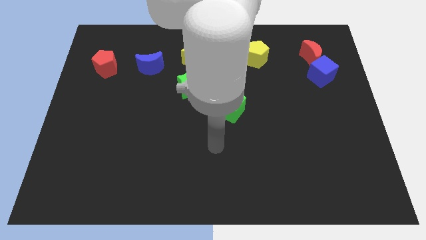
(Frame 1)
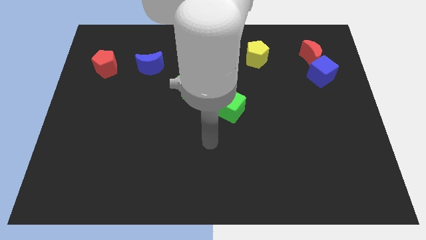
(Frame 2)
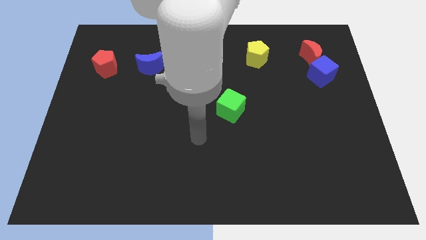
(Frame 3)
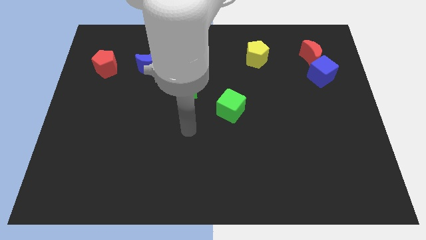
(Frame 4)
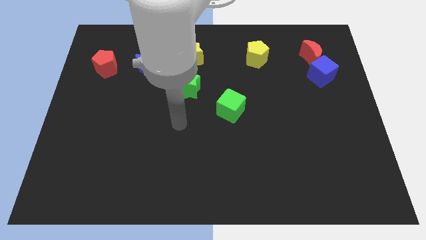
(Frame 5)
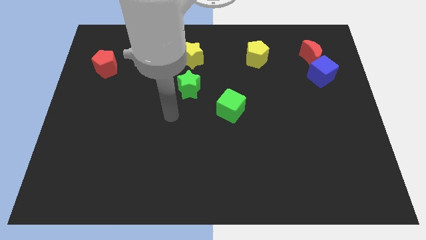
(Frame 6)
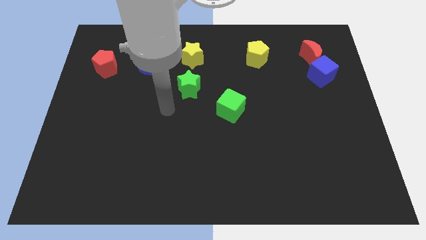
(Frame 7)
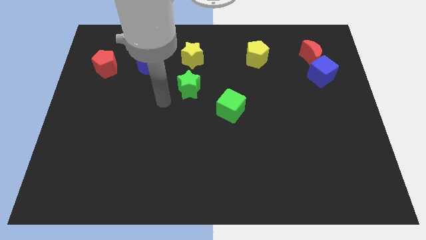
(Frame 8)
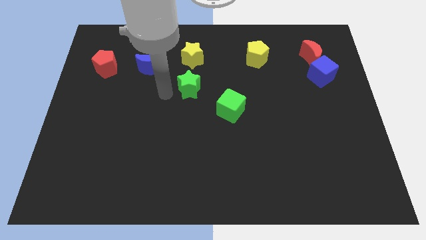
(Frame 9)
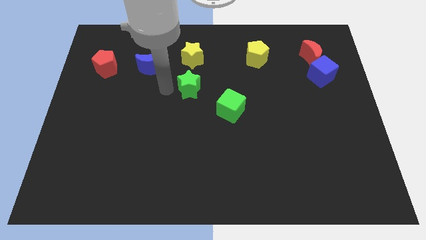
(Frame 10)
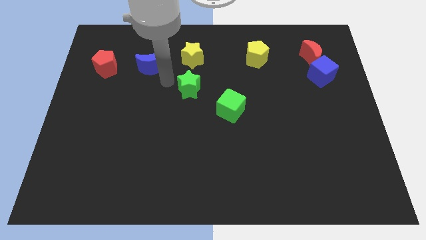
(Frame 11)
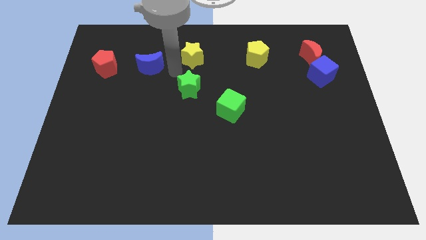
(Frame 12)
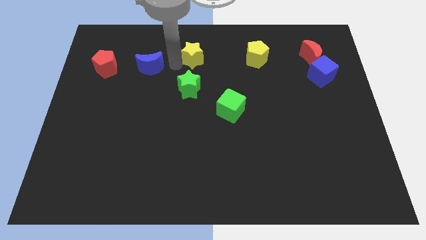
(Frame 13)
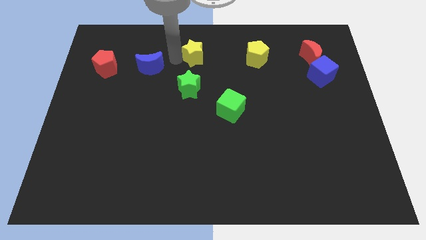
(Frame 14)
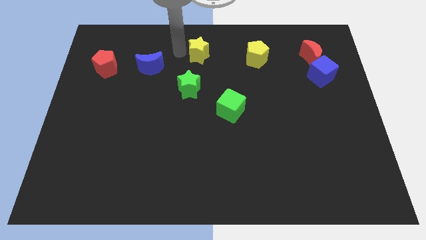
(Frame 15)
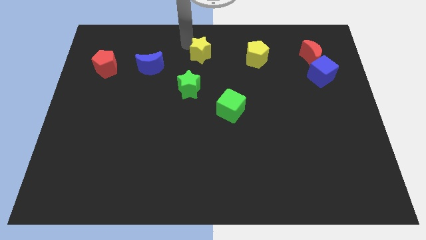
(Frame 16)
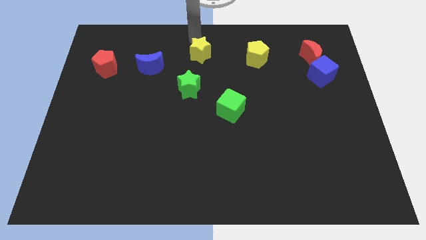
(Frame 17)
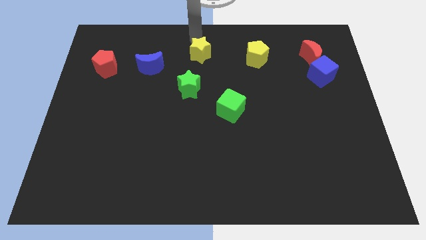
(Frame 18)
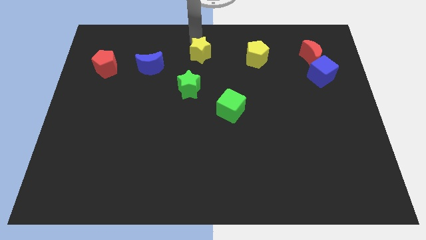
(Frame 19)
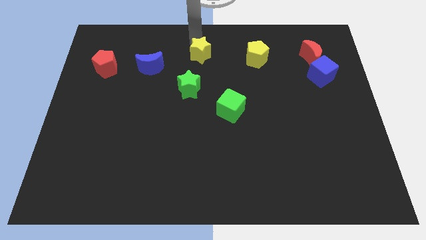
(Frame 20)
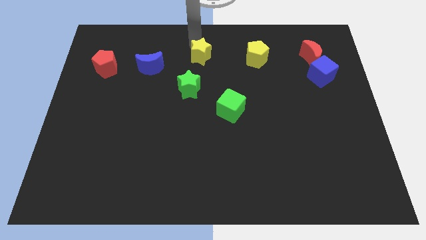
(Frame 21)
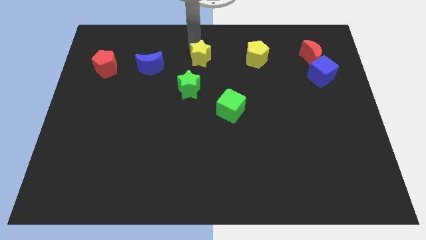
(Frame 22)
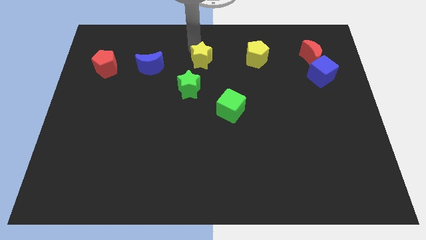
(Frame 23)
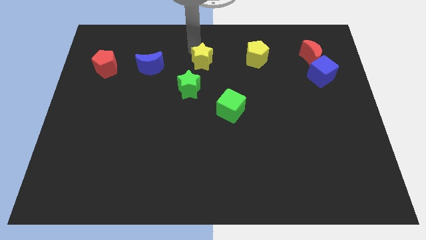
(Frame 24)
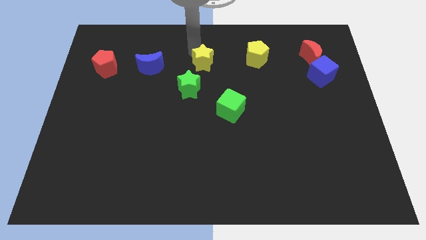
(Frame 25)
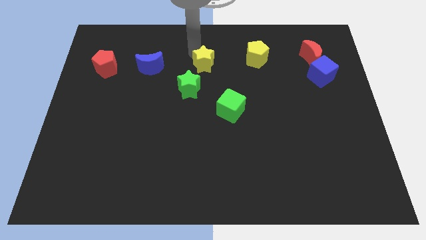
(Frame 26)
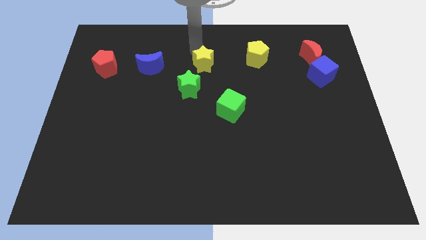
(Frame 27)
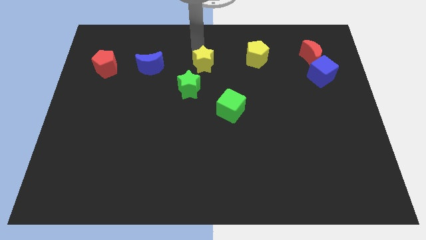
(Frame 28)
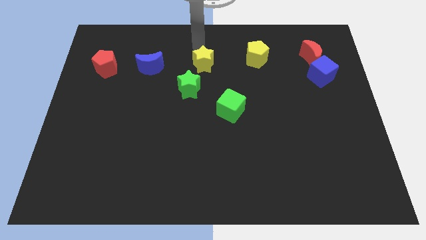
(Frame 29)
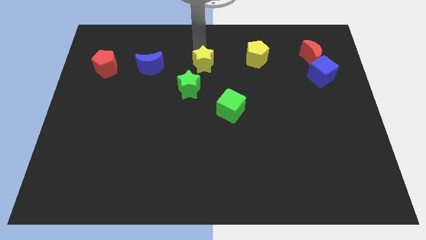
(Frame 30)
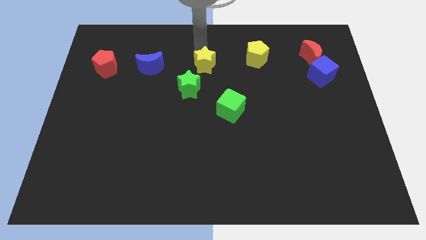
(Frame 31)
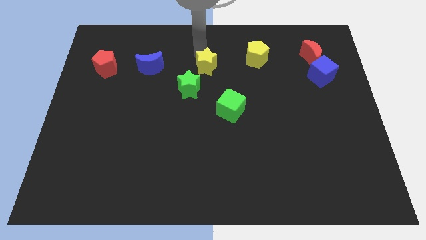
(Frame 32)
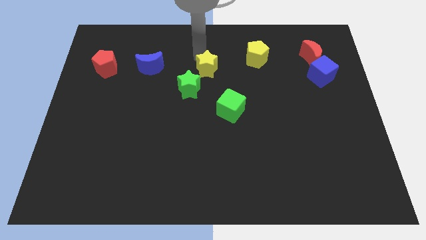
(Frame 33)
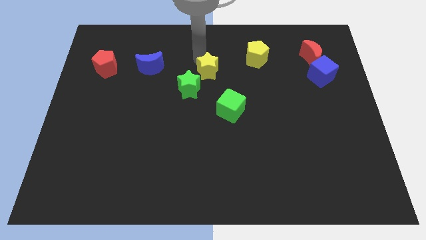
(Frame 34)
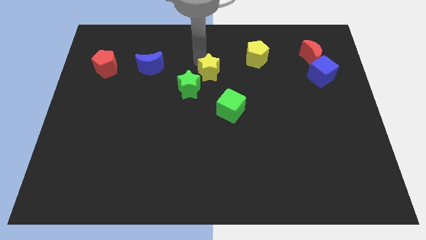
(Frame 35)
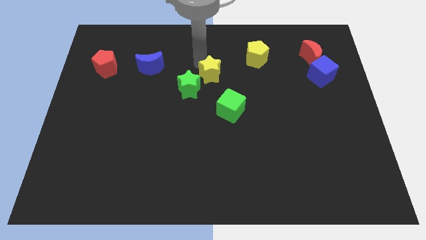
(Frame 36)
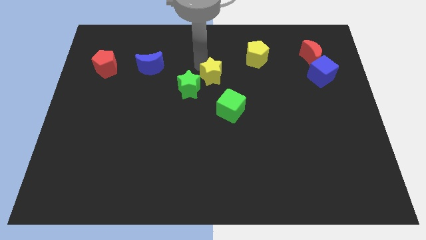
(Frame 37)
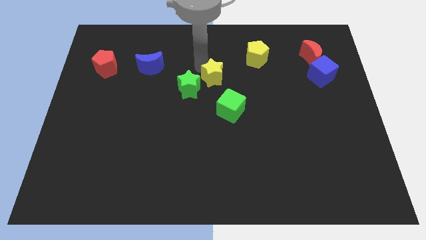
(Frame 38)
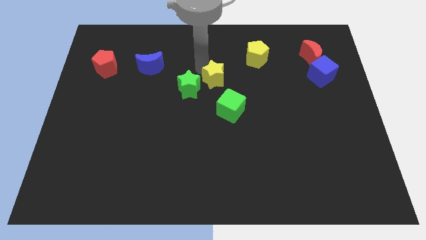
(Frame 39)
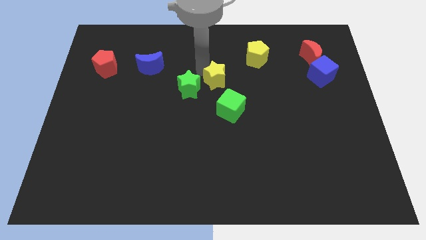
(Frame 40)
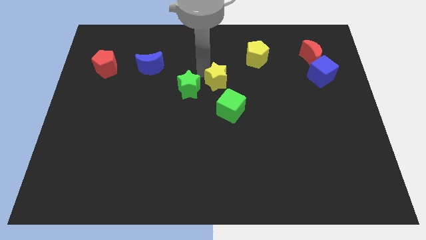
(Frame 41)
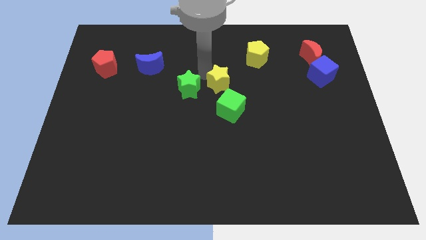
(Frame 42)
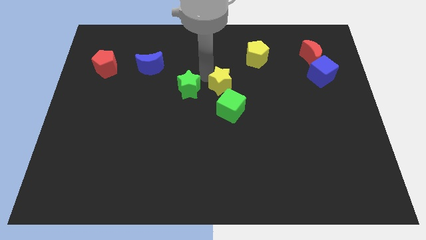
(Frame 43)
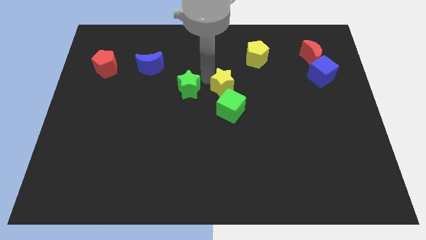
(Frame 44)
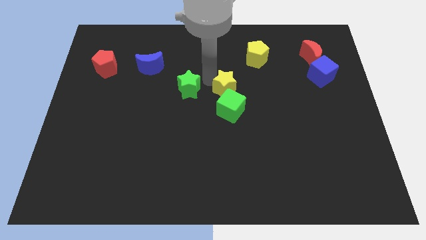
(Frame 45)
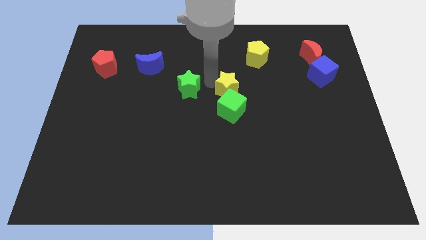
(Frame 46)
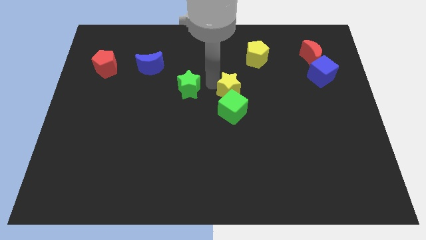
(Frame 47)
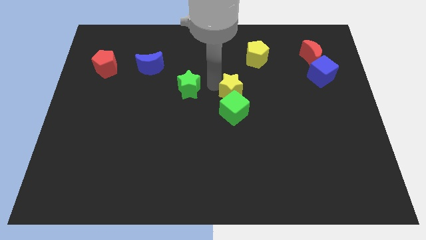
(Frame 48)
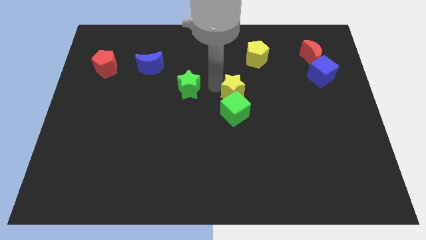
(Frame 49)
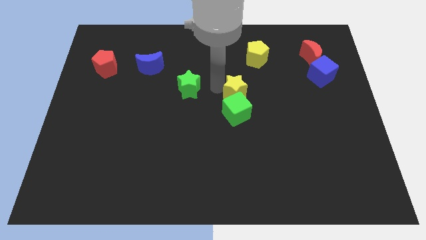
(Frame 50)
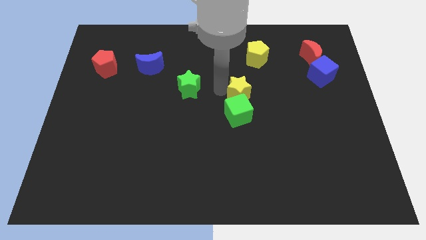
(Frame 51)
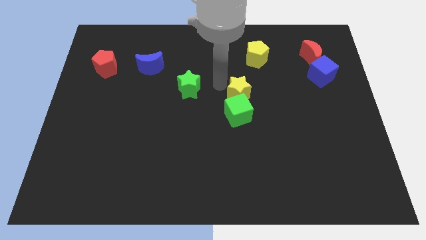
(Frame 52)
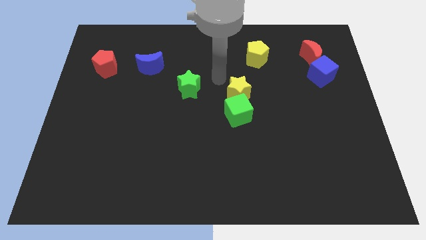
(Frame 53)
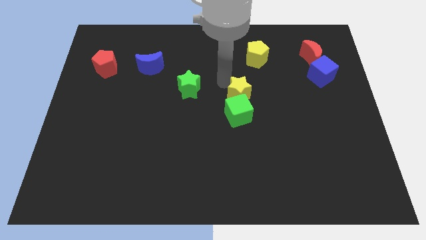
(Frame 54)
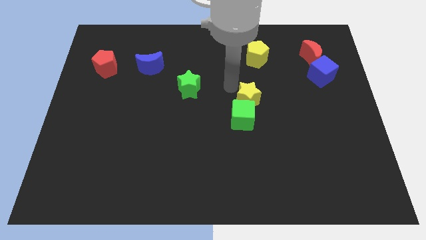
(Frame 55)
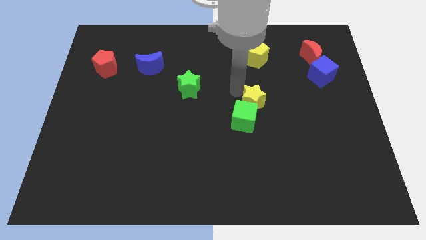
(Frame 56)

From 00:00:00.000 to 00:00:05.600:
push the yellow star down and to the right diagonally

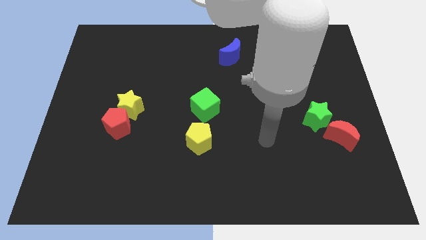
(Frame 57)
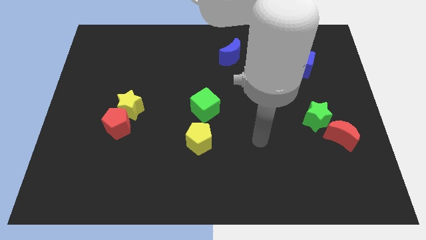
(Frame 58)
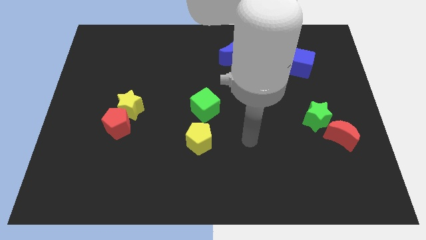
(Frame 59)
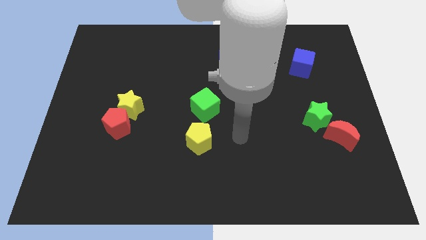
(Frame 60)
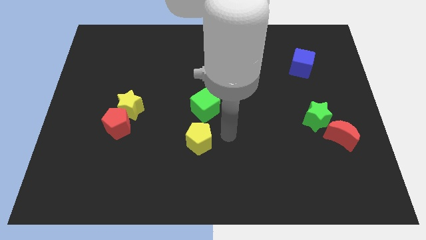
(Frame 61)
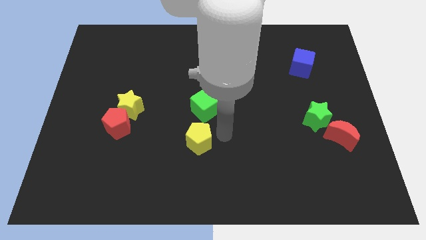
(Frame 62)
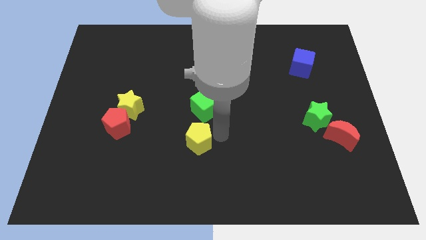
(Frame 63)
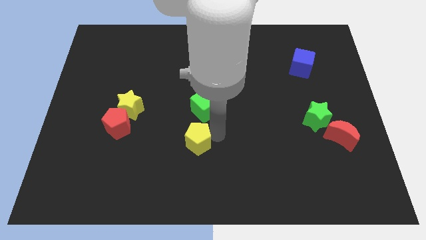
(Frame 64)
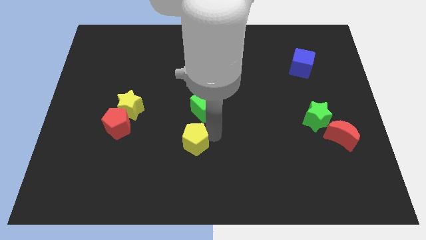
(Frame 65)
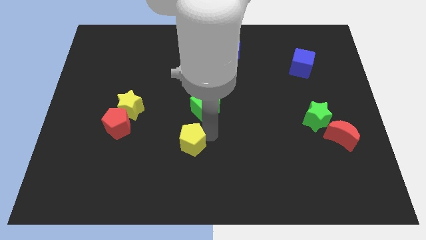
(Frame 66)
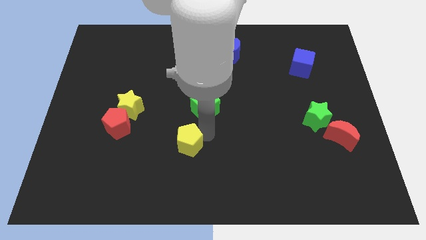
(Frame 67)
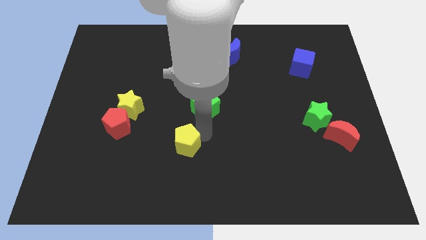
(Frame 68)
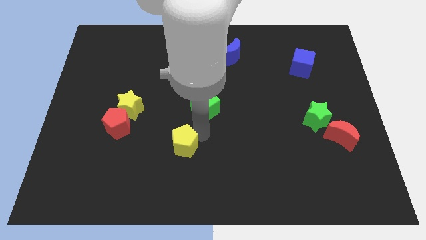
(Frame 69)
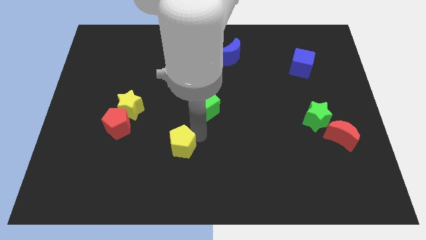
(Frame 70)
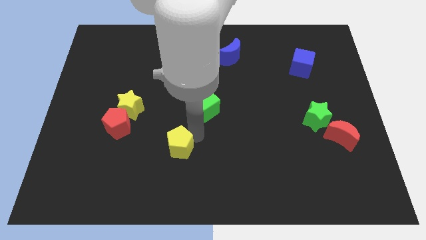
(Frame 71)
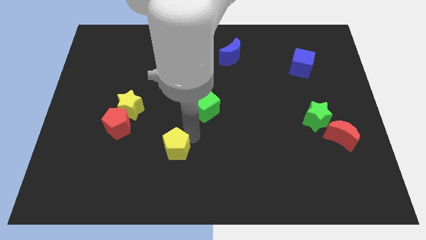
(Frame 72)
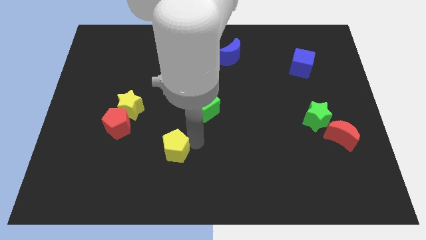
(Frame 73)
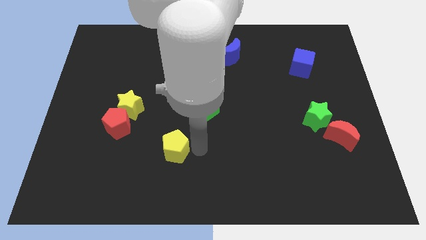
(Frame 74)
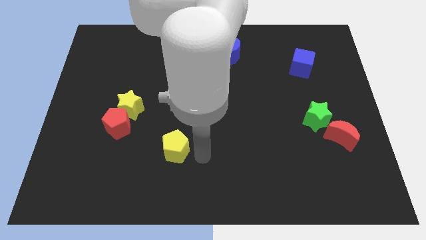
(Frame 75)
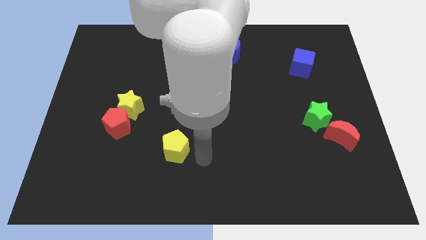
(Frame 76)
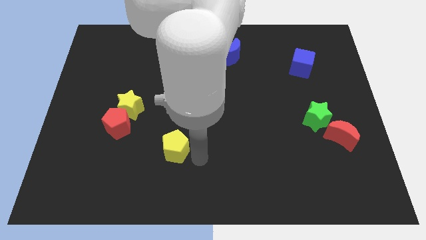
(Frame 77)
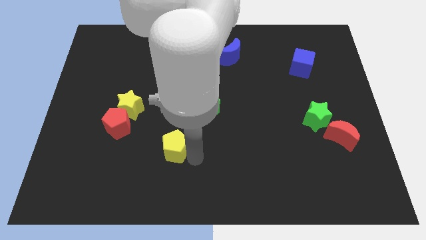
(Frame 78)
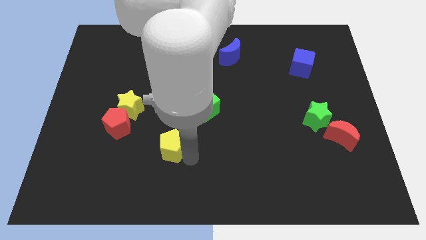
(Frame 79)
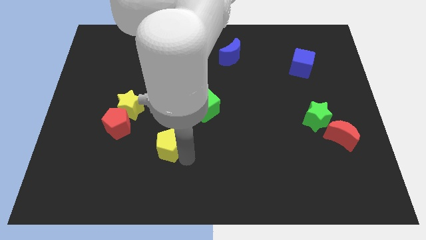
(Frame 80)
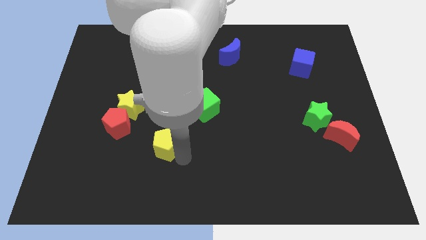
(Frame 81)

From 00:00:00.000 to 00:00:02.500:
move the yellow pentagon a little bit left

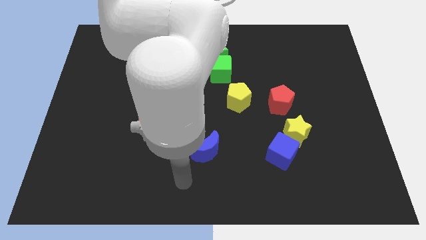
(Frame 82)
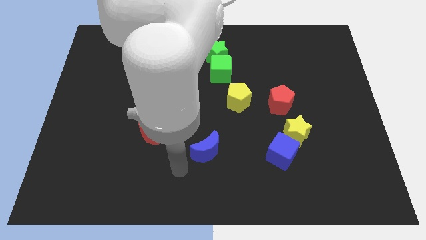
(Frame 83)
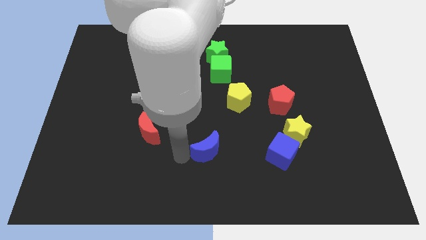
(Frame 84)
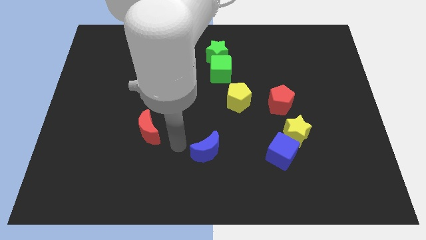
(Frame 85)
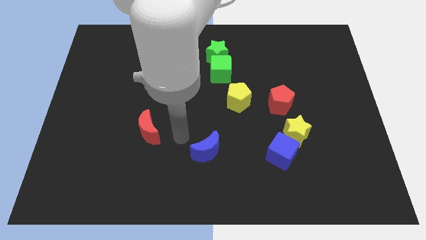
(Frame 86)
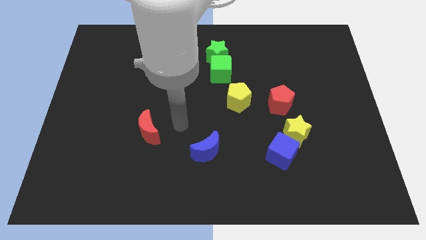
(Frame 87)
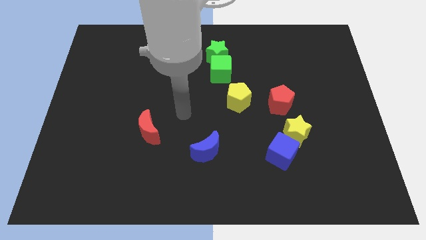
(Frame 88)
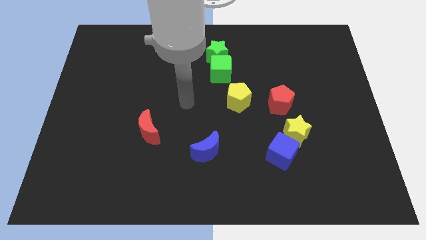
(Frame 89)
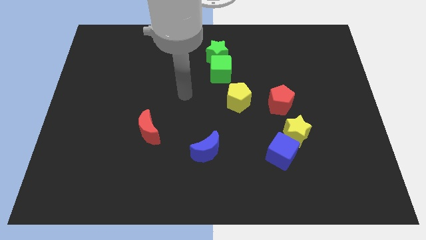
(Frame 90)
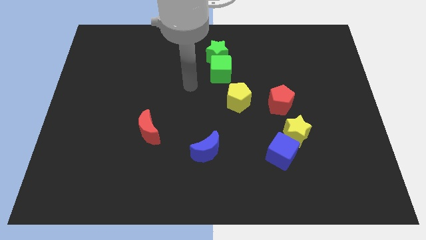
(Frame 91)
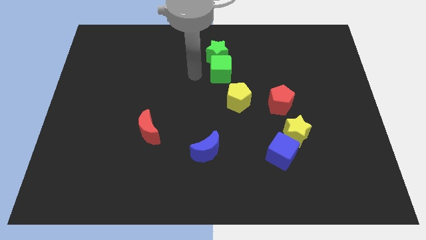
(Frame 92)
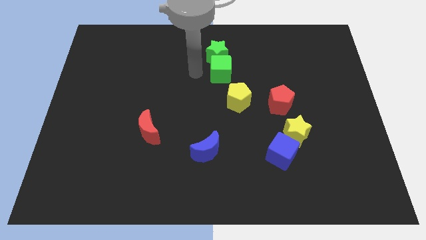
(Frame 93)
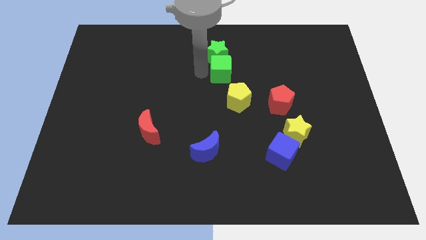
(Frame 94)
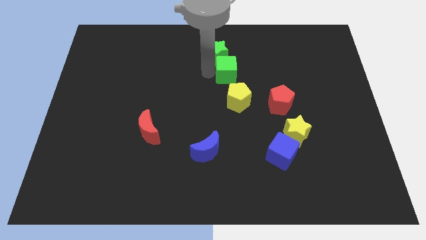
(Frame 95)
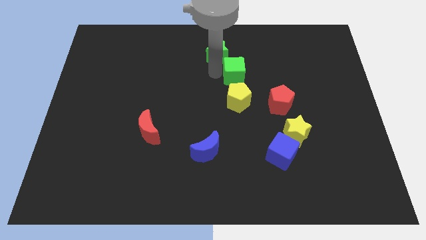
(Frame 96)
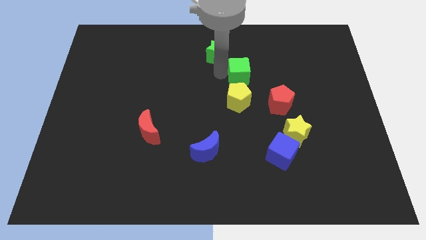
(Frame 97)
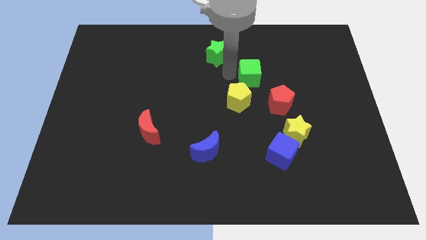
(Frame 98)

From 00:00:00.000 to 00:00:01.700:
move the green cube somewhat to the right
